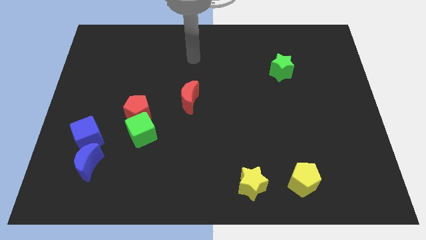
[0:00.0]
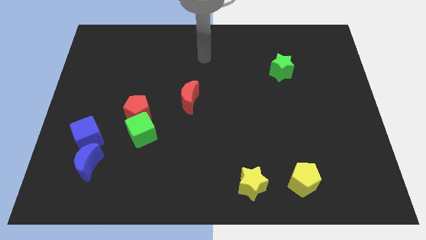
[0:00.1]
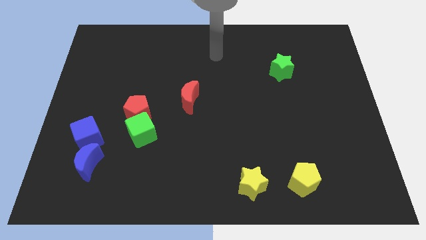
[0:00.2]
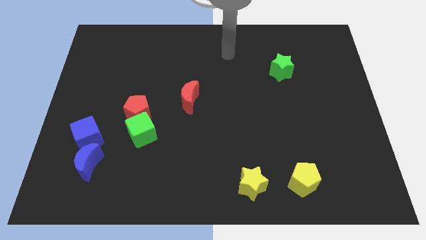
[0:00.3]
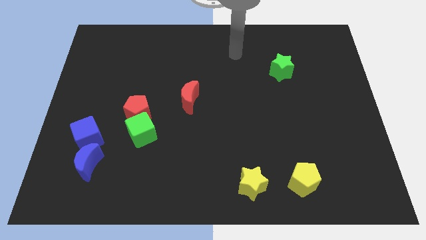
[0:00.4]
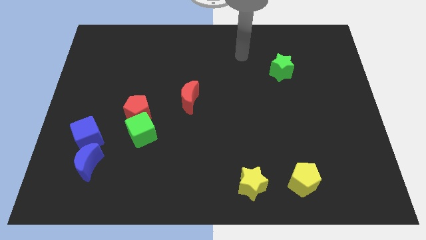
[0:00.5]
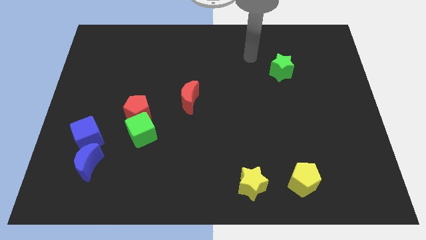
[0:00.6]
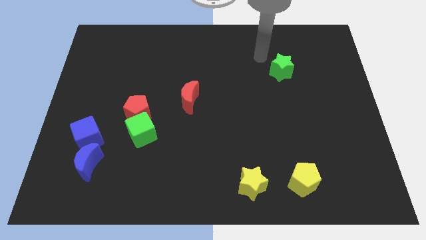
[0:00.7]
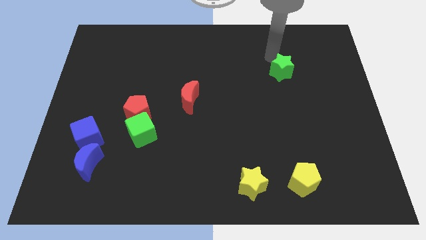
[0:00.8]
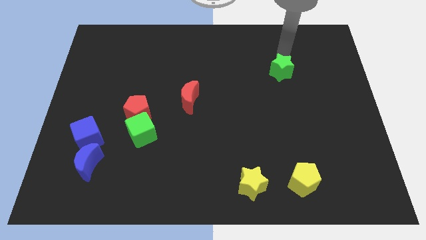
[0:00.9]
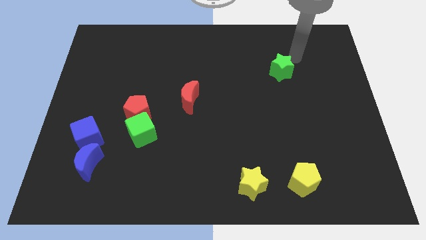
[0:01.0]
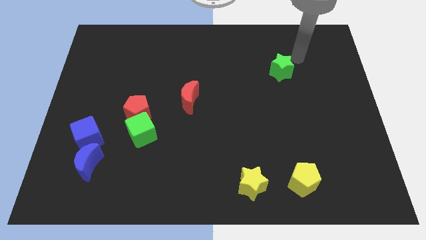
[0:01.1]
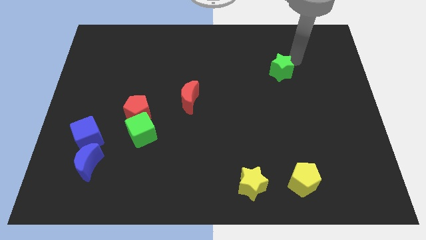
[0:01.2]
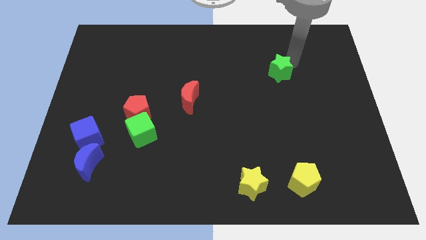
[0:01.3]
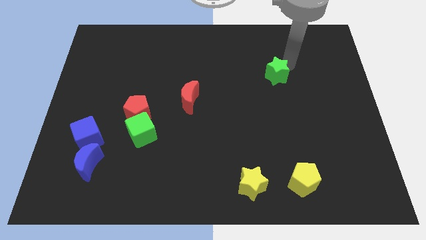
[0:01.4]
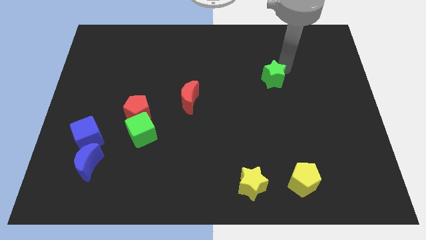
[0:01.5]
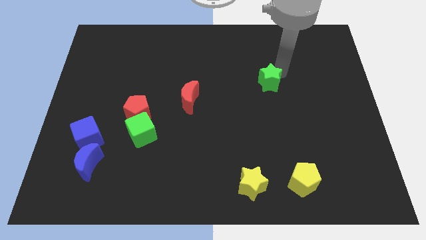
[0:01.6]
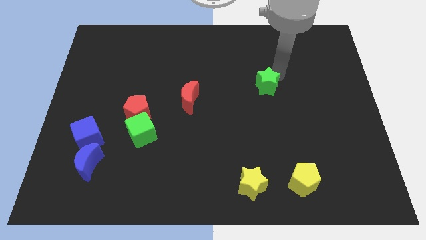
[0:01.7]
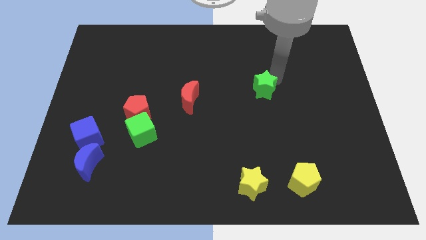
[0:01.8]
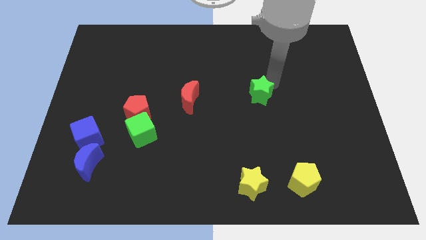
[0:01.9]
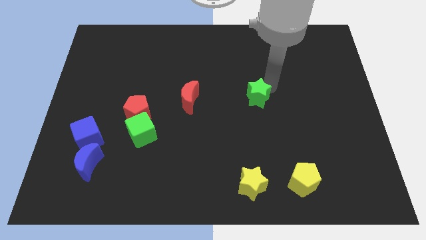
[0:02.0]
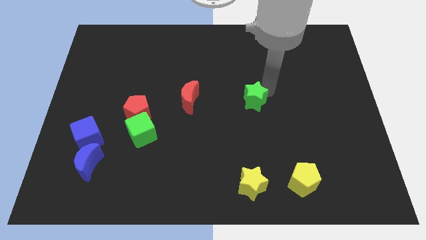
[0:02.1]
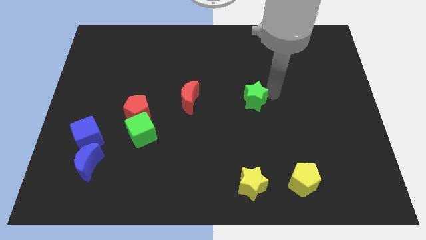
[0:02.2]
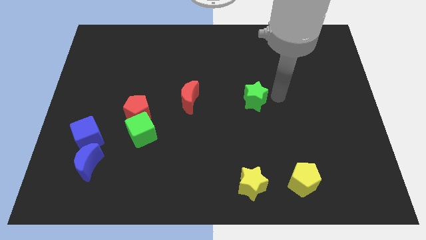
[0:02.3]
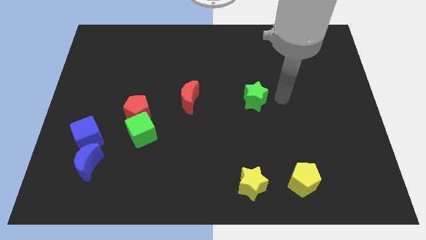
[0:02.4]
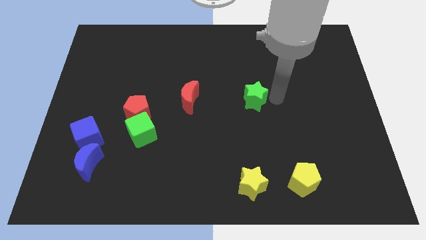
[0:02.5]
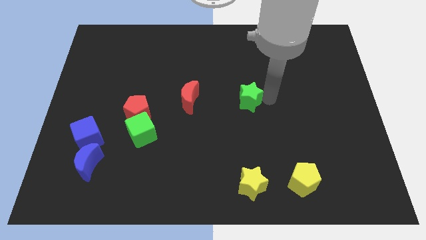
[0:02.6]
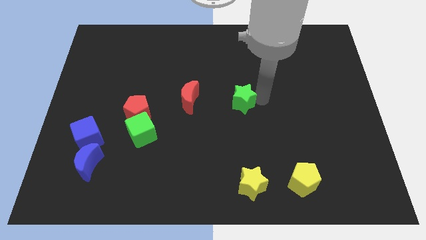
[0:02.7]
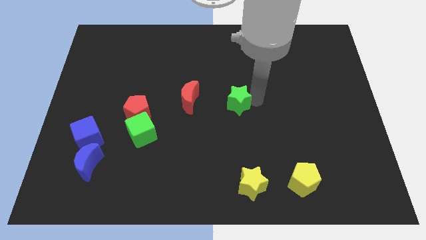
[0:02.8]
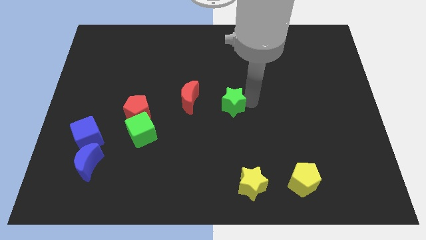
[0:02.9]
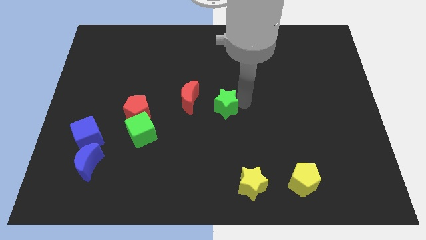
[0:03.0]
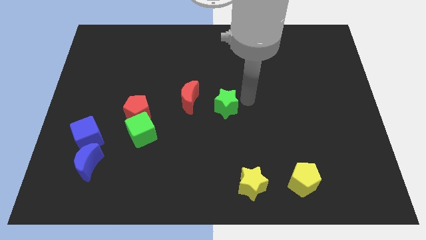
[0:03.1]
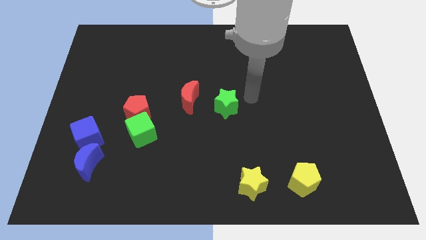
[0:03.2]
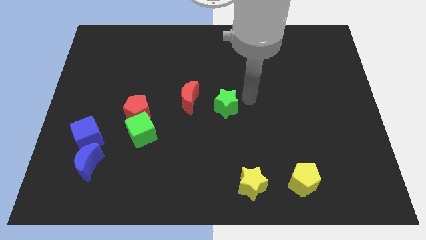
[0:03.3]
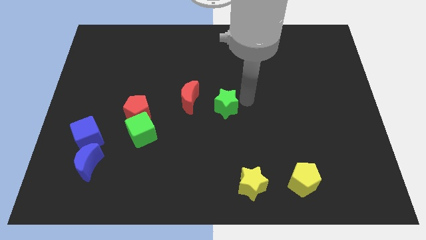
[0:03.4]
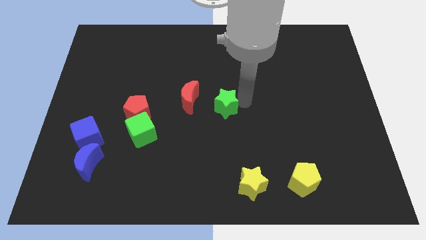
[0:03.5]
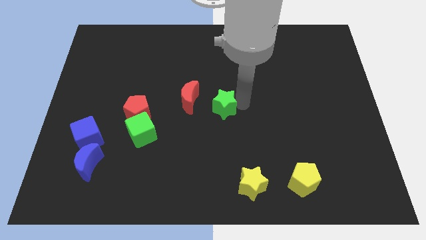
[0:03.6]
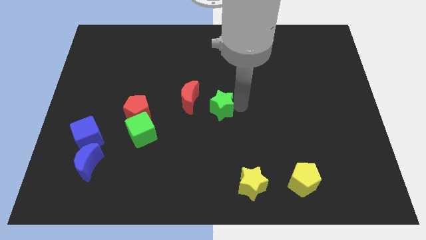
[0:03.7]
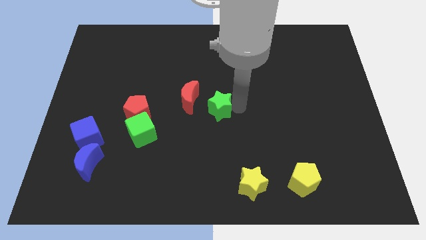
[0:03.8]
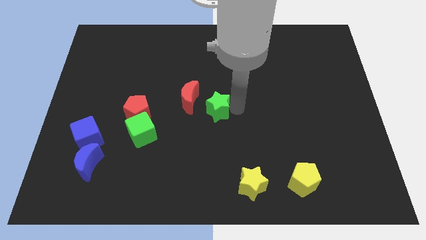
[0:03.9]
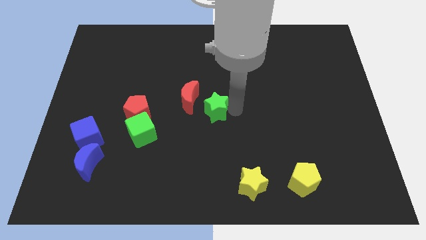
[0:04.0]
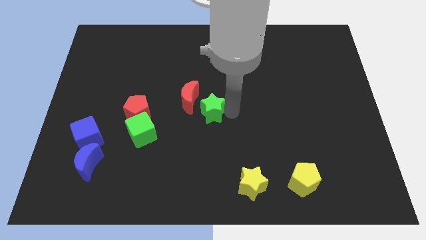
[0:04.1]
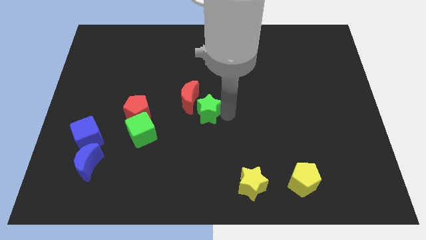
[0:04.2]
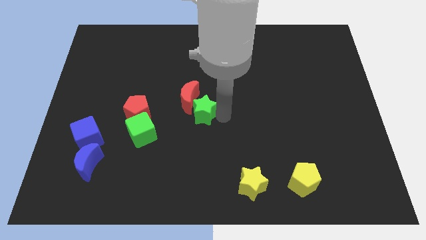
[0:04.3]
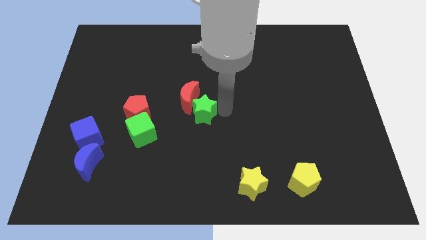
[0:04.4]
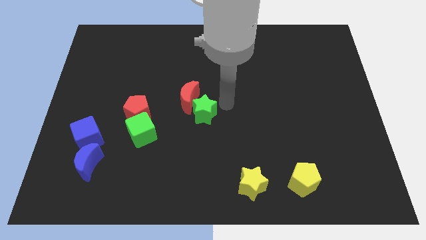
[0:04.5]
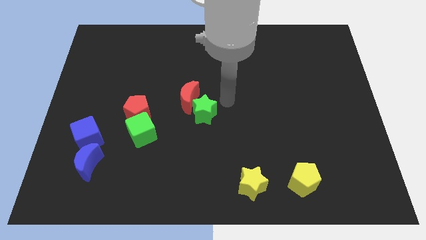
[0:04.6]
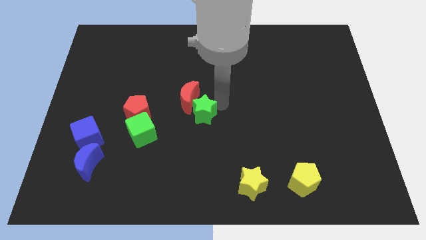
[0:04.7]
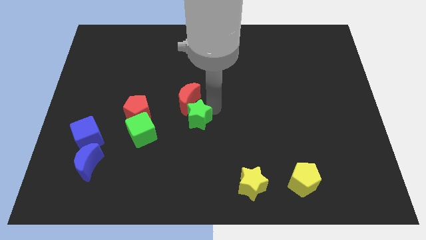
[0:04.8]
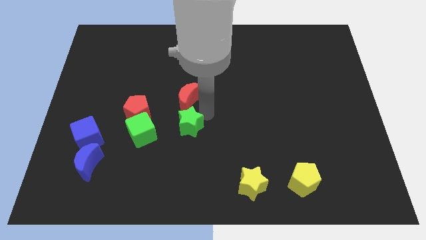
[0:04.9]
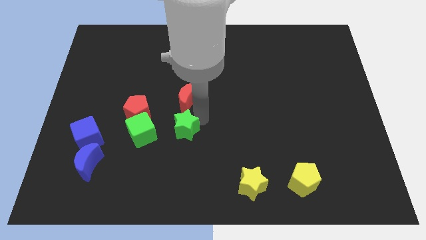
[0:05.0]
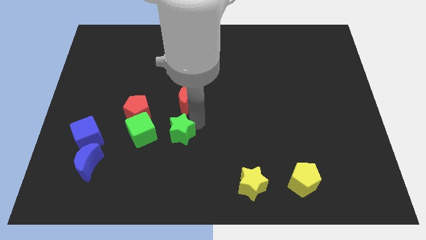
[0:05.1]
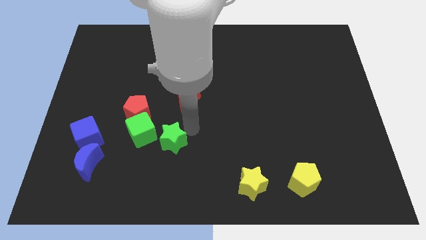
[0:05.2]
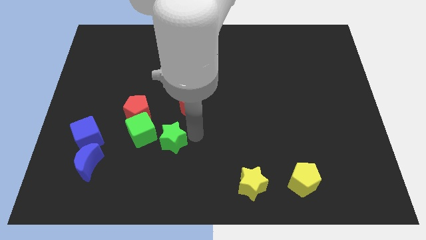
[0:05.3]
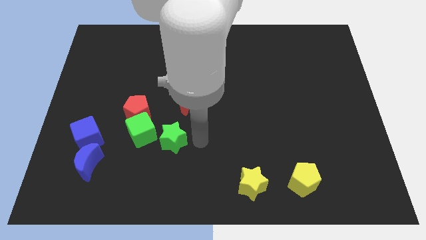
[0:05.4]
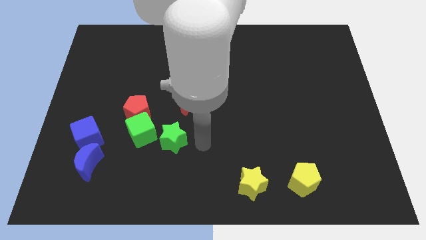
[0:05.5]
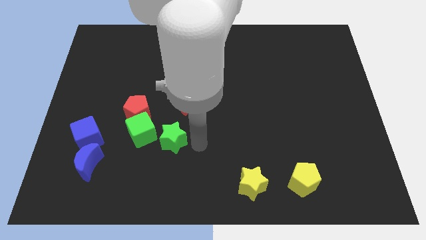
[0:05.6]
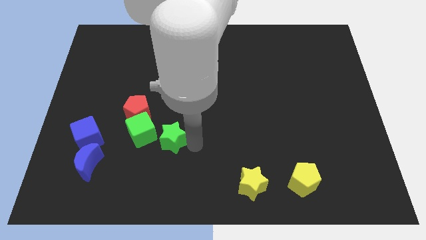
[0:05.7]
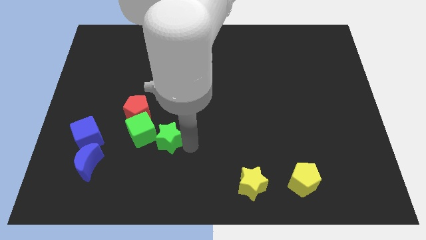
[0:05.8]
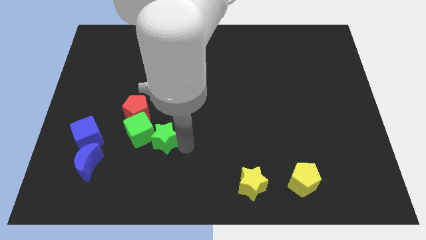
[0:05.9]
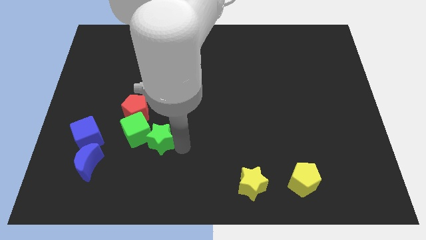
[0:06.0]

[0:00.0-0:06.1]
slide the green star just right of the blue cube

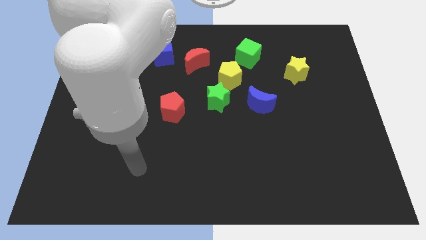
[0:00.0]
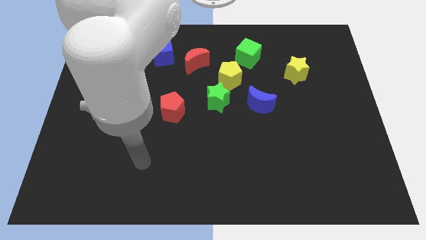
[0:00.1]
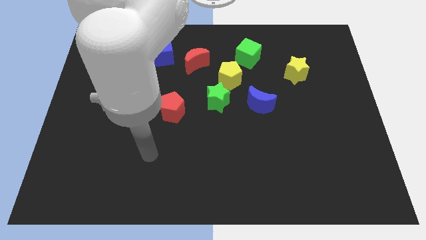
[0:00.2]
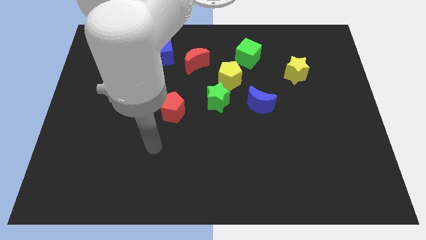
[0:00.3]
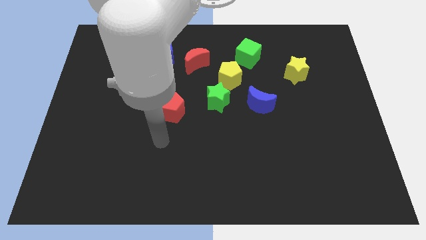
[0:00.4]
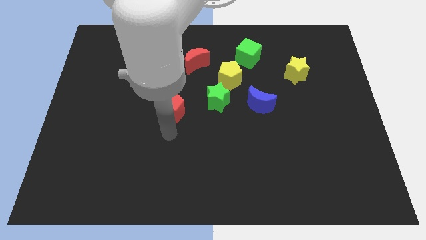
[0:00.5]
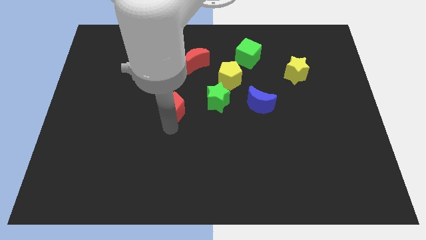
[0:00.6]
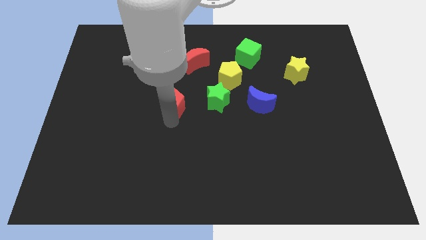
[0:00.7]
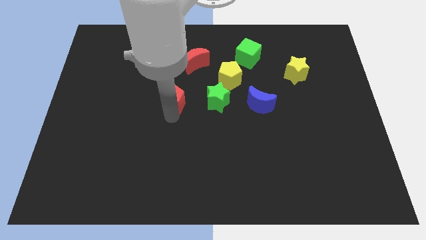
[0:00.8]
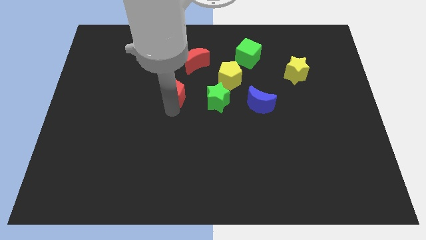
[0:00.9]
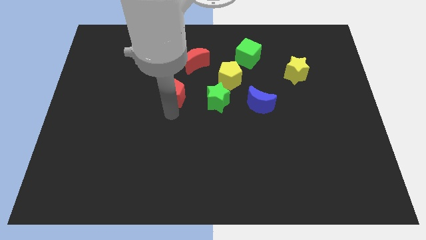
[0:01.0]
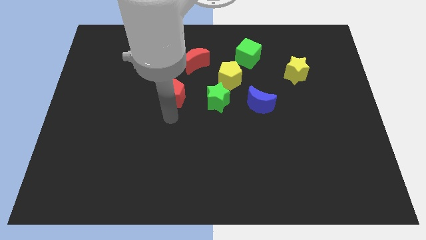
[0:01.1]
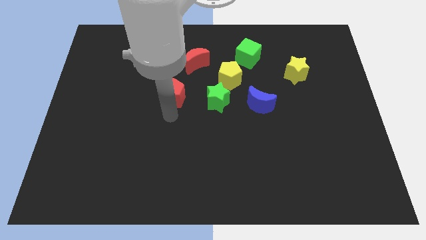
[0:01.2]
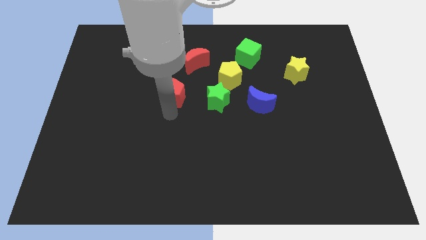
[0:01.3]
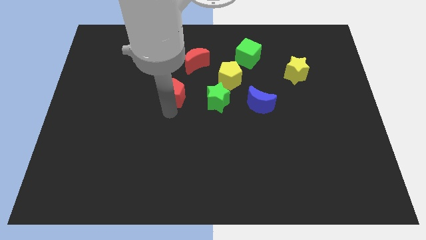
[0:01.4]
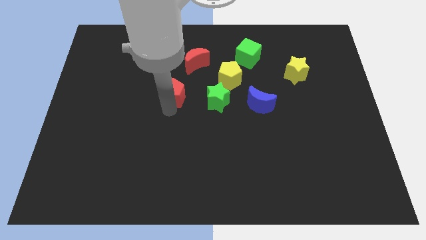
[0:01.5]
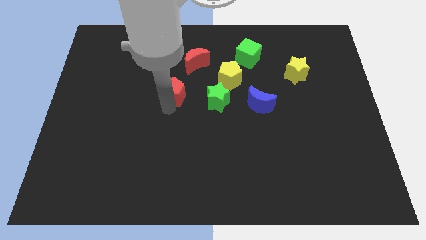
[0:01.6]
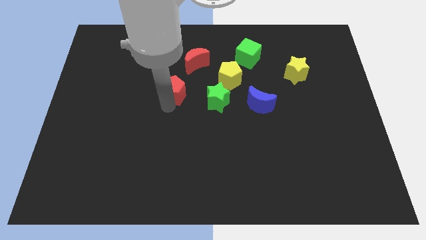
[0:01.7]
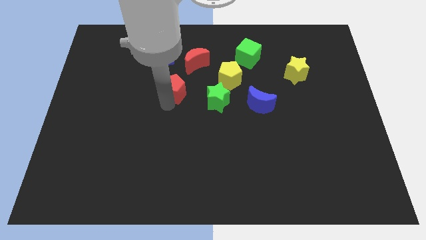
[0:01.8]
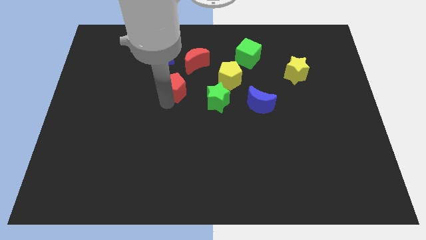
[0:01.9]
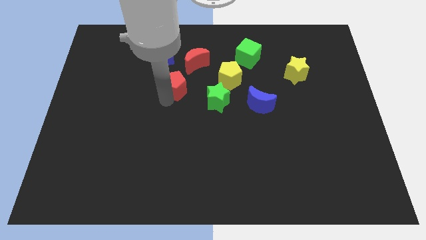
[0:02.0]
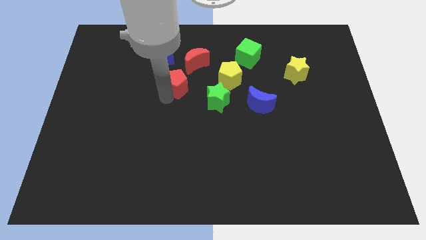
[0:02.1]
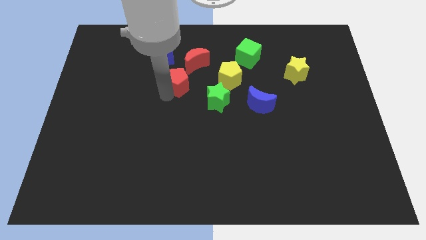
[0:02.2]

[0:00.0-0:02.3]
slide the red pentagon to the bottom right of the blue cube
